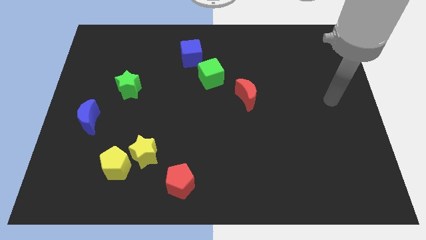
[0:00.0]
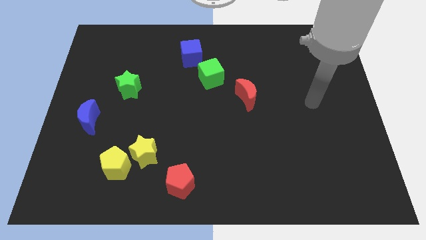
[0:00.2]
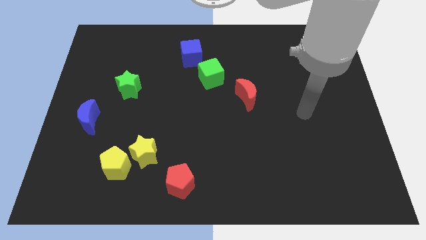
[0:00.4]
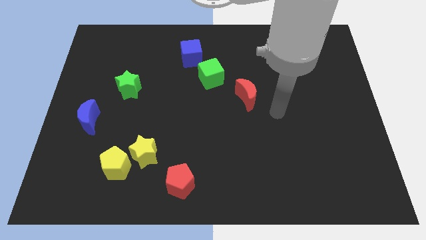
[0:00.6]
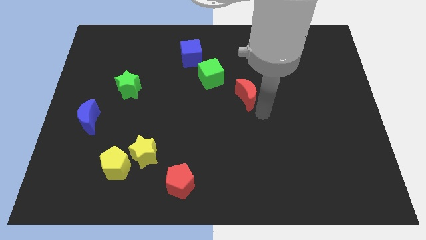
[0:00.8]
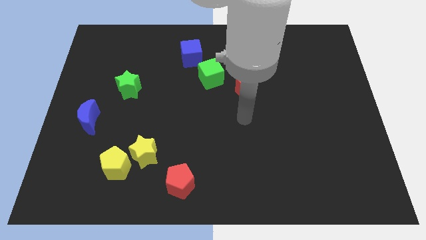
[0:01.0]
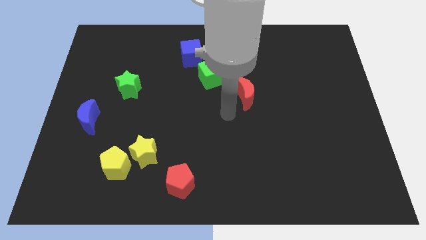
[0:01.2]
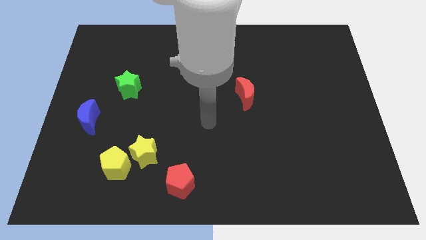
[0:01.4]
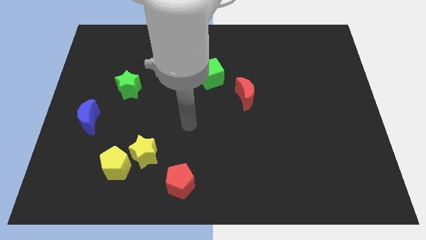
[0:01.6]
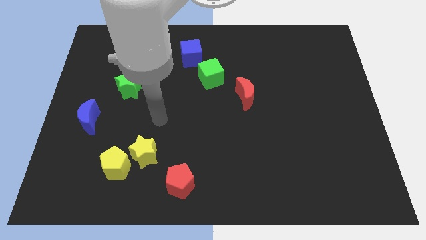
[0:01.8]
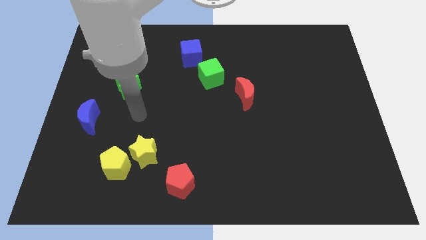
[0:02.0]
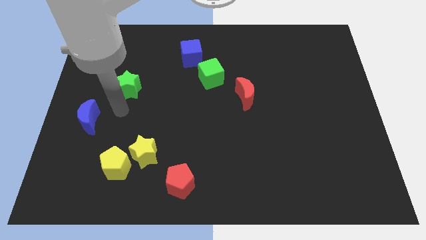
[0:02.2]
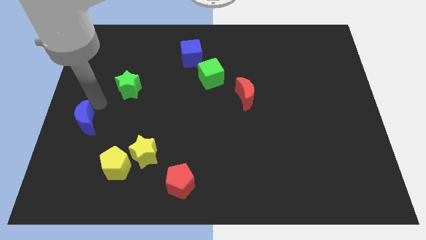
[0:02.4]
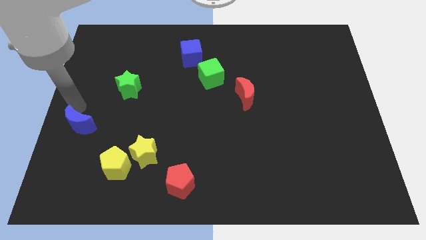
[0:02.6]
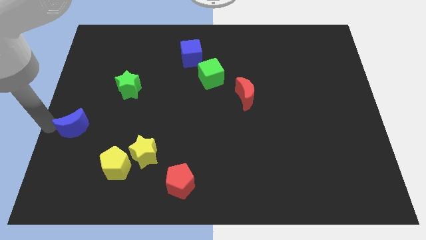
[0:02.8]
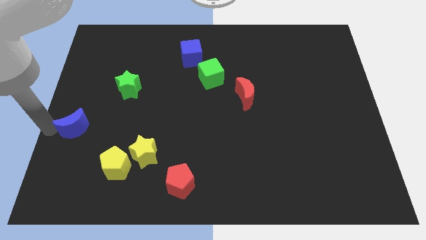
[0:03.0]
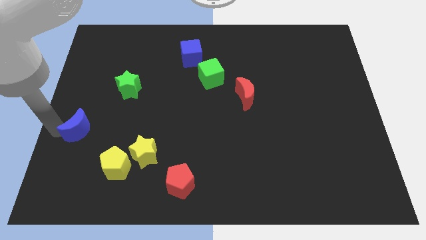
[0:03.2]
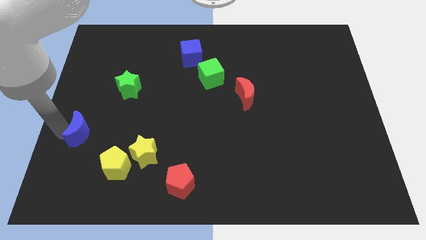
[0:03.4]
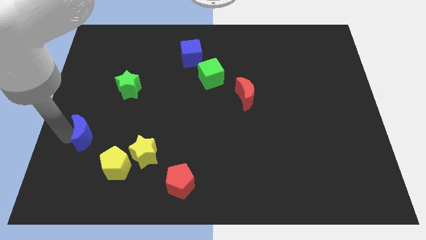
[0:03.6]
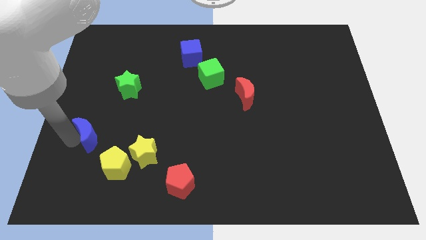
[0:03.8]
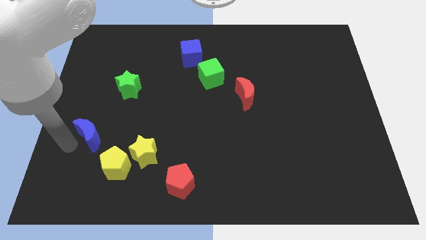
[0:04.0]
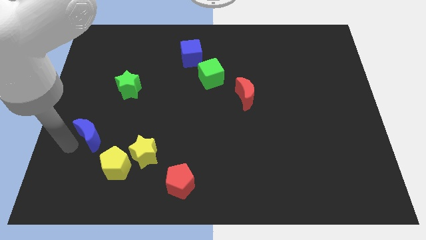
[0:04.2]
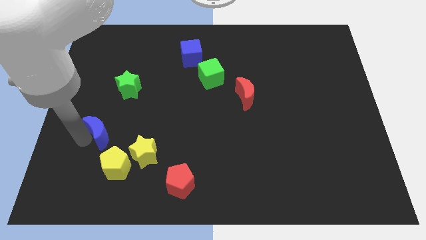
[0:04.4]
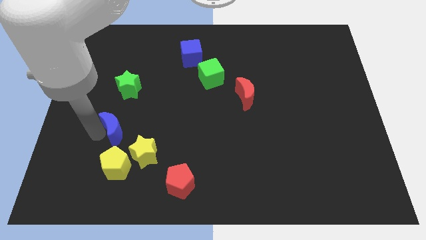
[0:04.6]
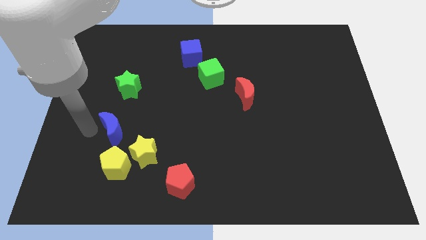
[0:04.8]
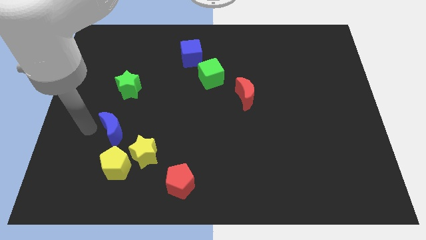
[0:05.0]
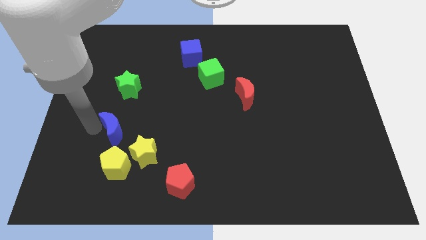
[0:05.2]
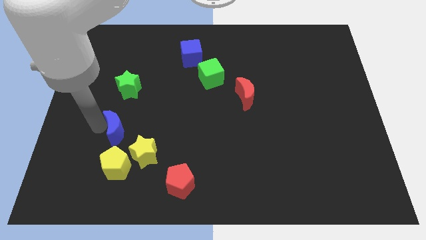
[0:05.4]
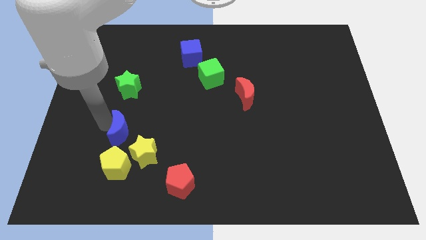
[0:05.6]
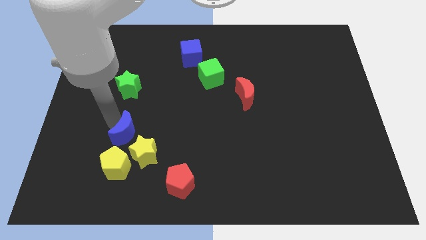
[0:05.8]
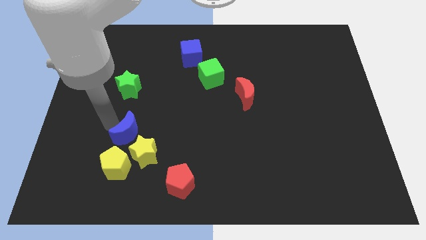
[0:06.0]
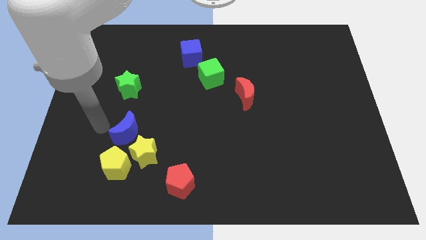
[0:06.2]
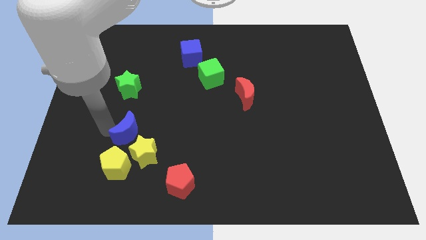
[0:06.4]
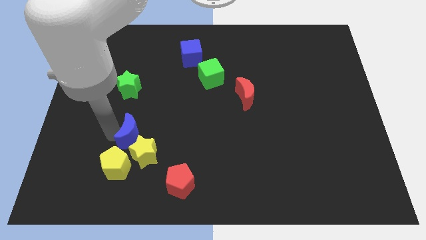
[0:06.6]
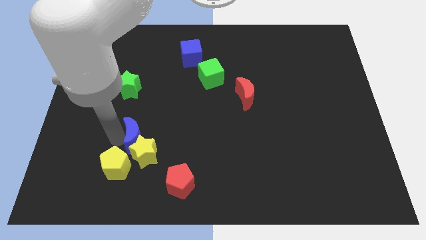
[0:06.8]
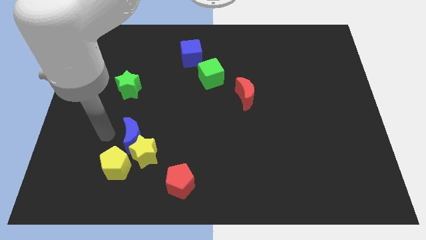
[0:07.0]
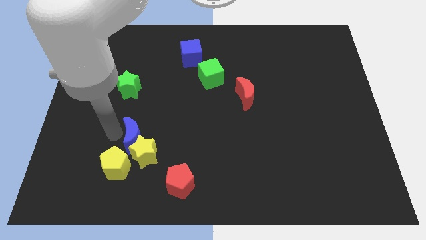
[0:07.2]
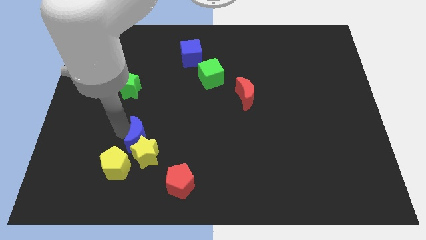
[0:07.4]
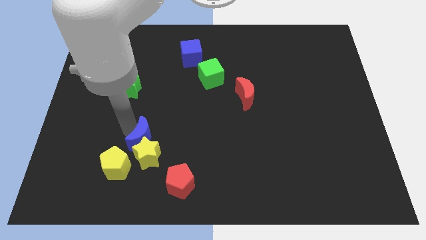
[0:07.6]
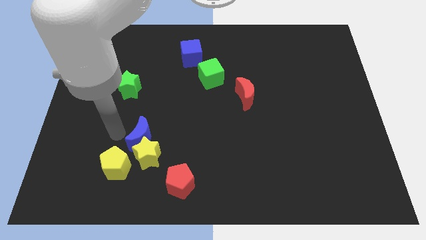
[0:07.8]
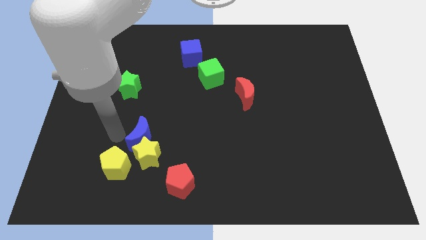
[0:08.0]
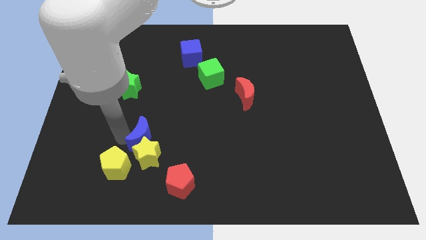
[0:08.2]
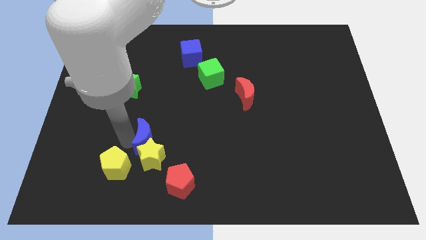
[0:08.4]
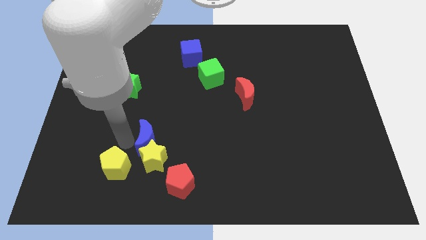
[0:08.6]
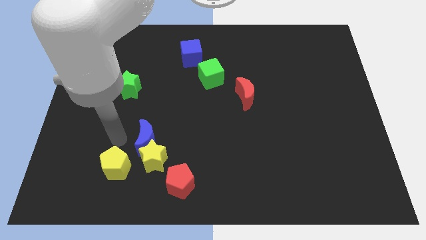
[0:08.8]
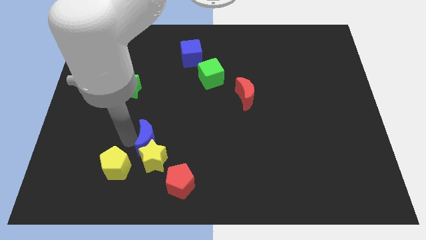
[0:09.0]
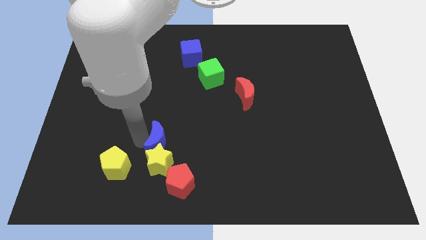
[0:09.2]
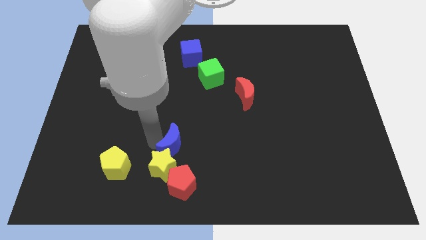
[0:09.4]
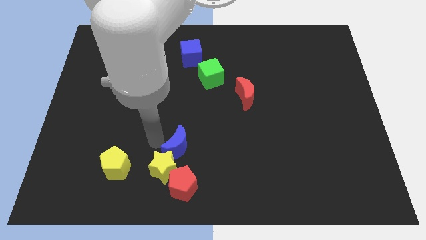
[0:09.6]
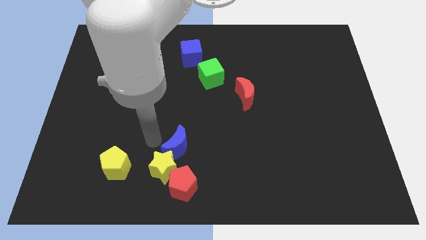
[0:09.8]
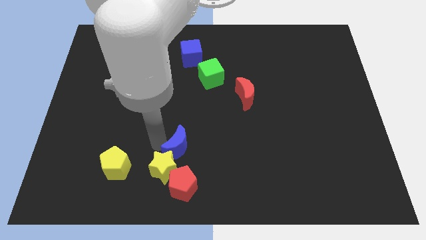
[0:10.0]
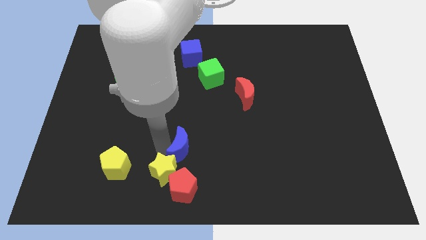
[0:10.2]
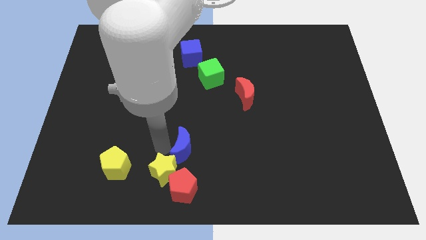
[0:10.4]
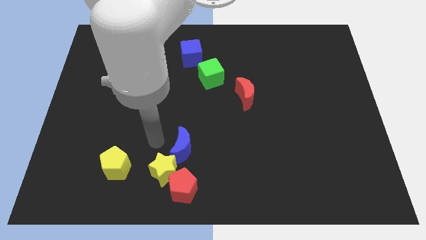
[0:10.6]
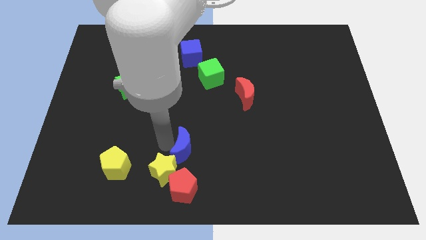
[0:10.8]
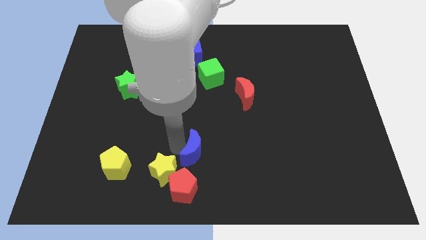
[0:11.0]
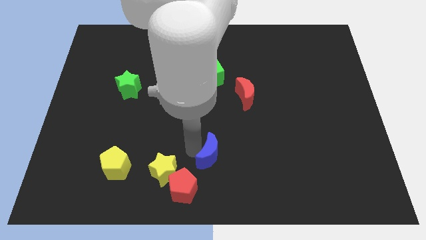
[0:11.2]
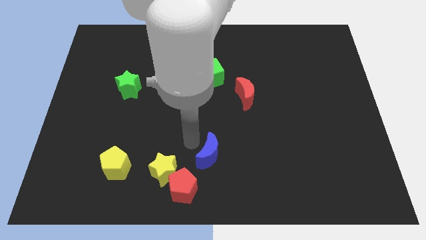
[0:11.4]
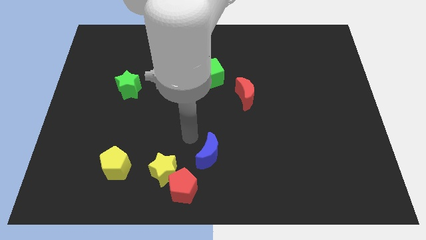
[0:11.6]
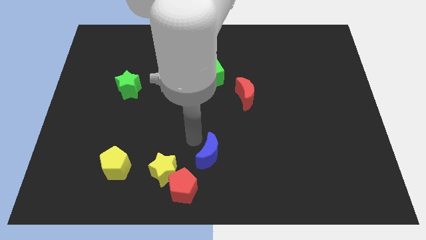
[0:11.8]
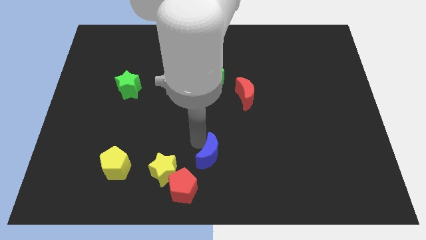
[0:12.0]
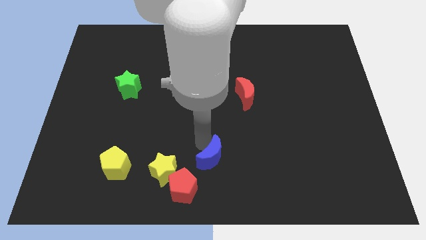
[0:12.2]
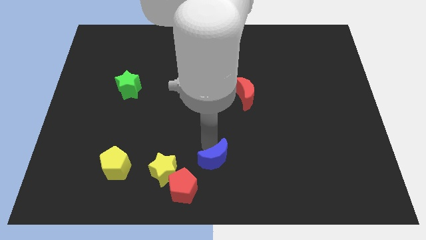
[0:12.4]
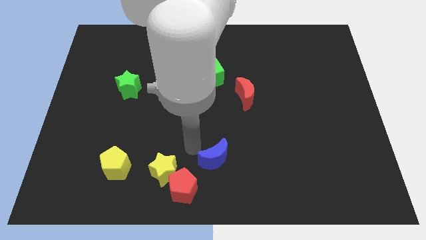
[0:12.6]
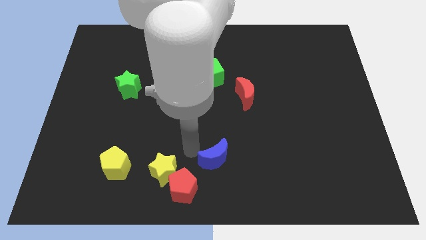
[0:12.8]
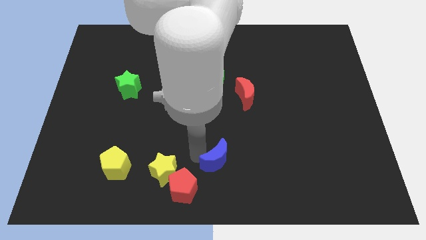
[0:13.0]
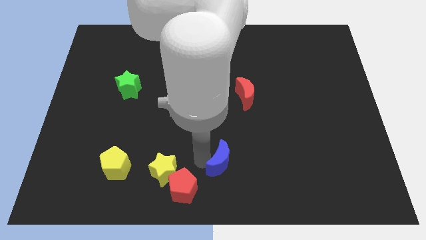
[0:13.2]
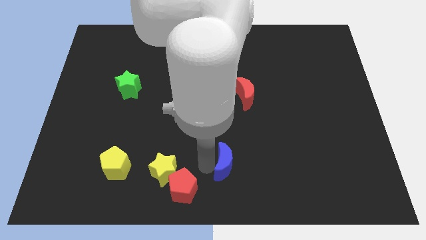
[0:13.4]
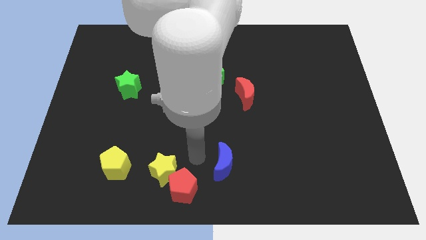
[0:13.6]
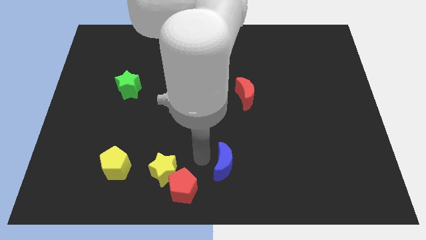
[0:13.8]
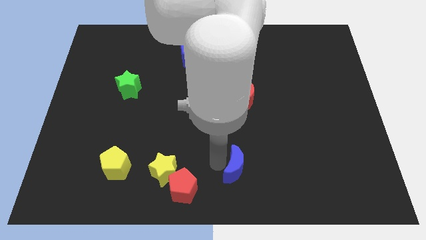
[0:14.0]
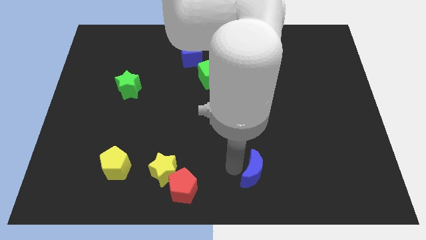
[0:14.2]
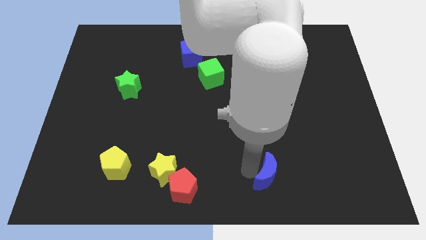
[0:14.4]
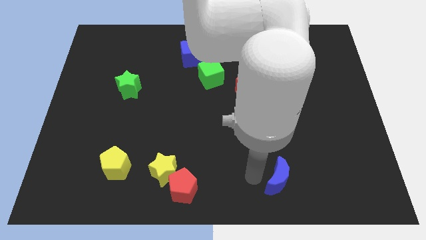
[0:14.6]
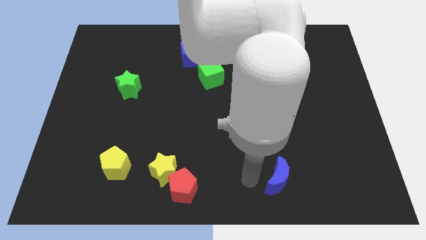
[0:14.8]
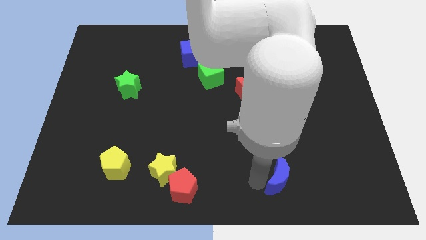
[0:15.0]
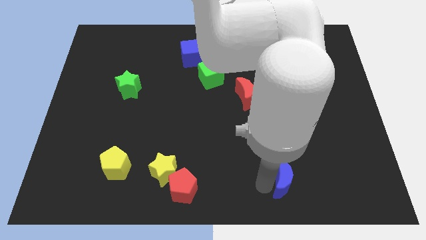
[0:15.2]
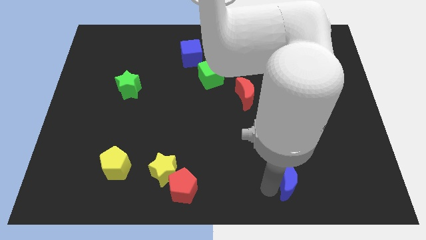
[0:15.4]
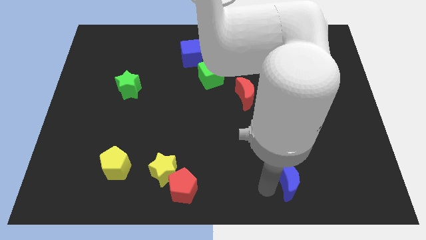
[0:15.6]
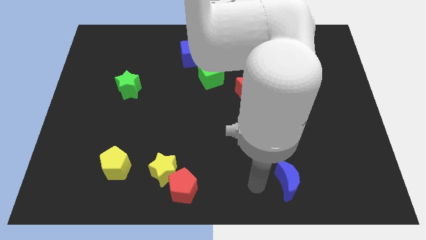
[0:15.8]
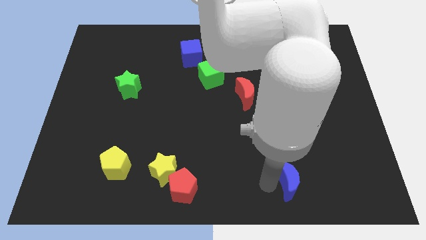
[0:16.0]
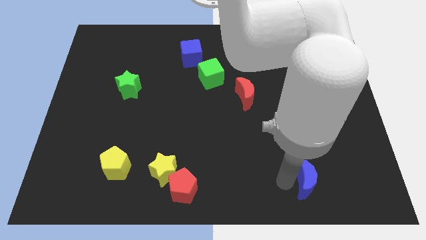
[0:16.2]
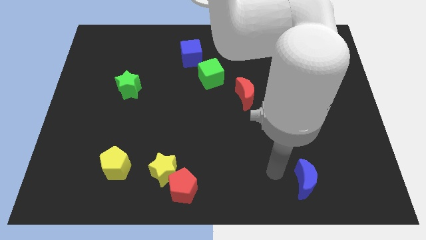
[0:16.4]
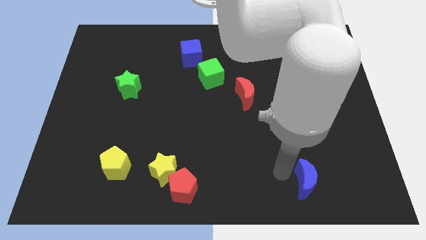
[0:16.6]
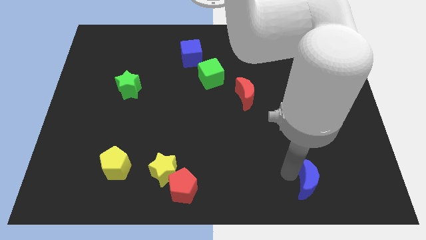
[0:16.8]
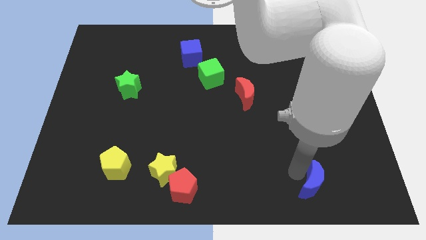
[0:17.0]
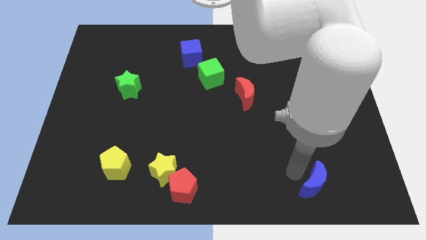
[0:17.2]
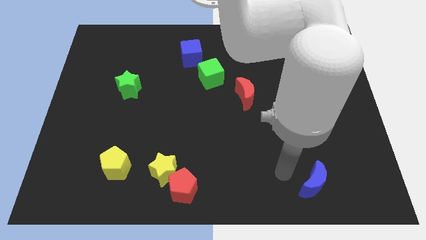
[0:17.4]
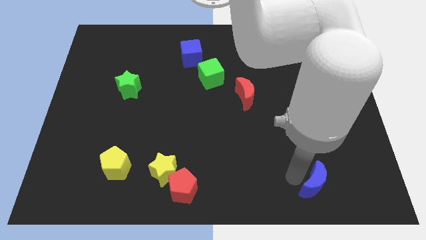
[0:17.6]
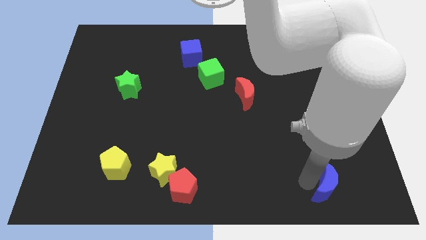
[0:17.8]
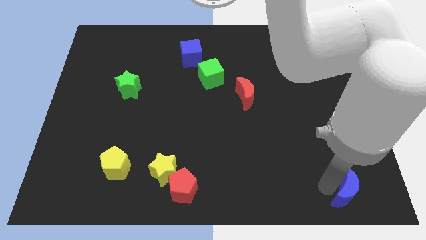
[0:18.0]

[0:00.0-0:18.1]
push the blue moon to the bottom right
